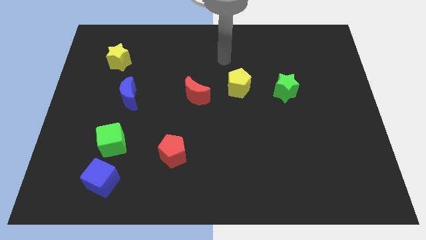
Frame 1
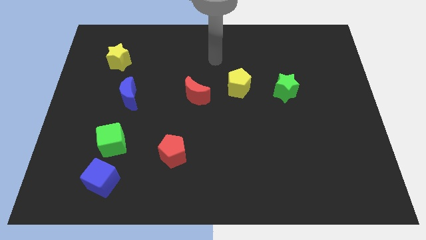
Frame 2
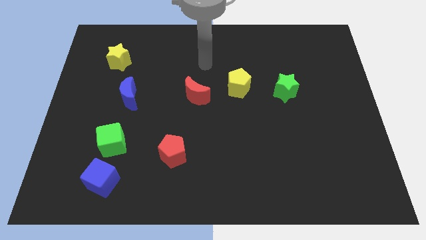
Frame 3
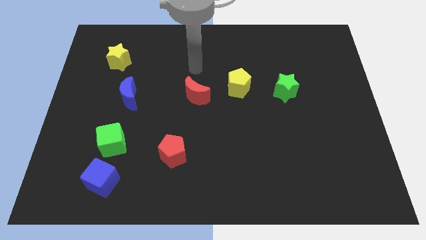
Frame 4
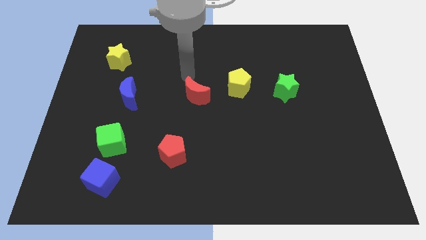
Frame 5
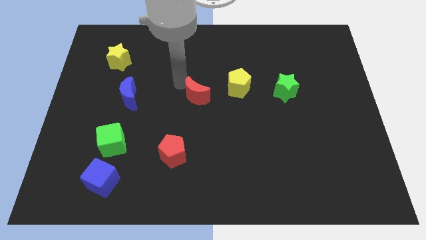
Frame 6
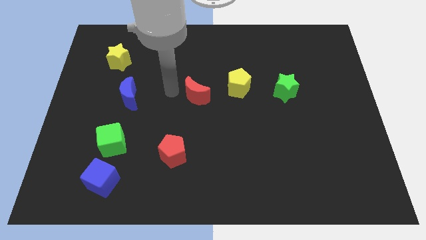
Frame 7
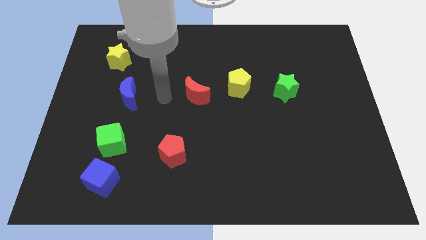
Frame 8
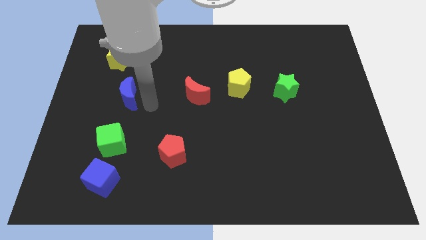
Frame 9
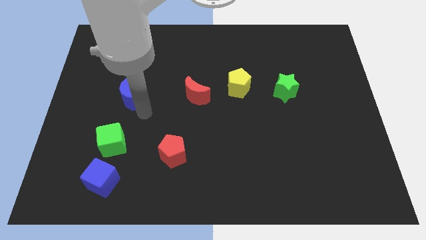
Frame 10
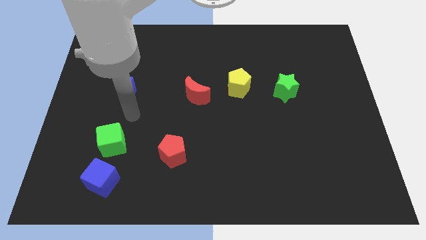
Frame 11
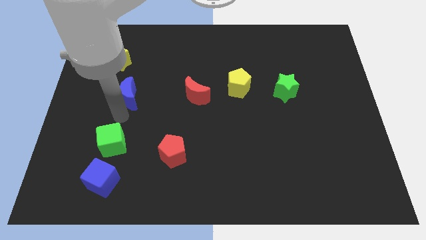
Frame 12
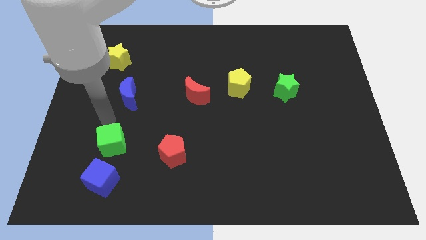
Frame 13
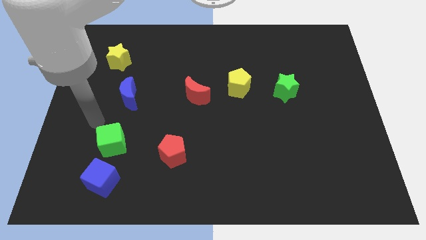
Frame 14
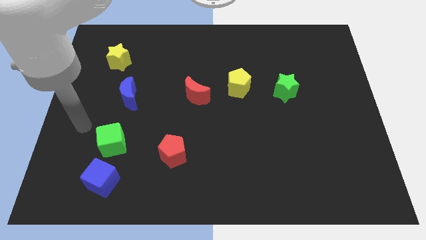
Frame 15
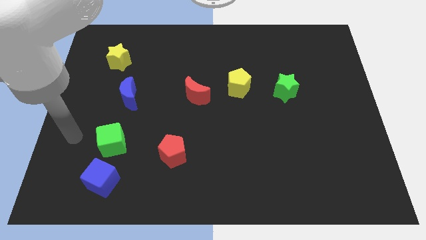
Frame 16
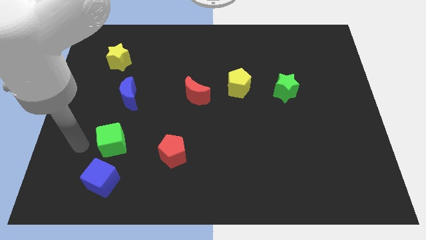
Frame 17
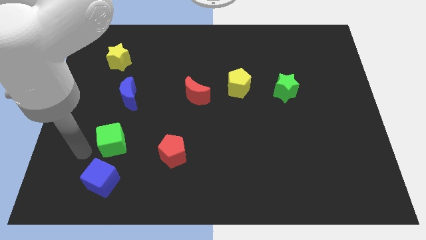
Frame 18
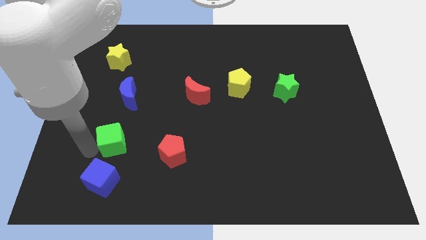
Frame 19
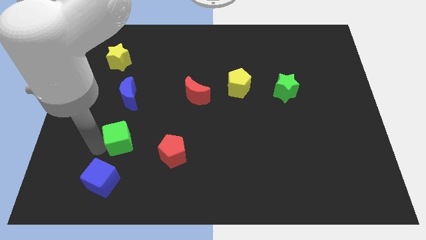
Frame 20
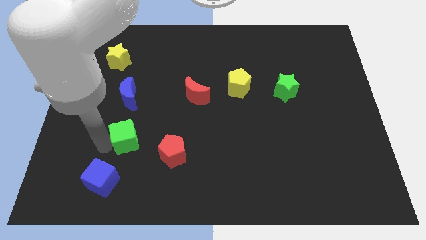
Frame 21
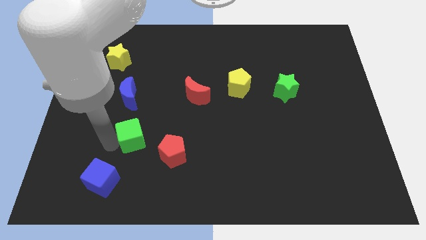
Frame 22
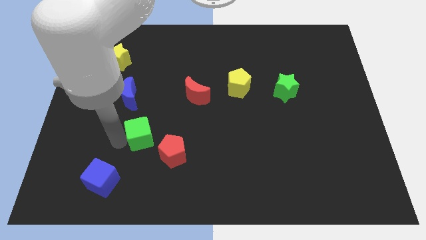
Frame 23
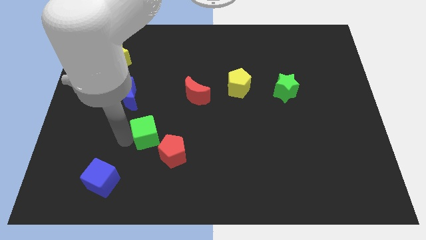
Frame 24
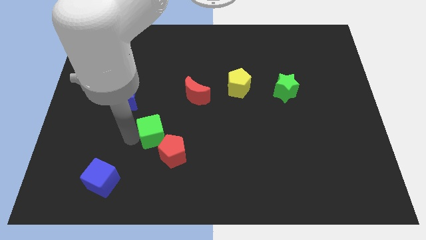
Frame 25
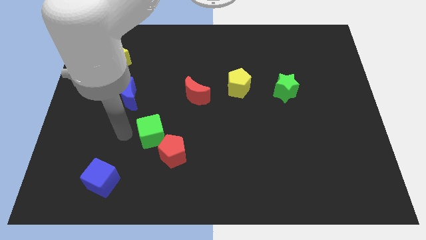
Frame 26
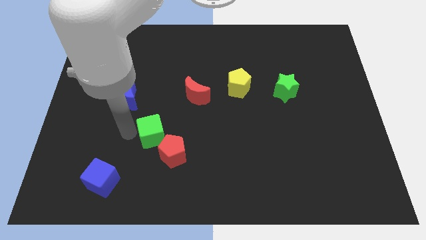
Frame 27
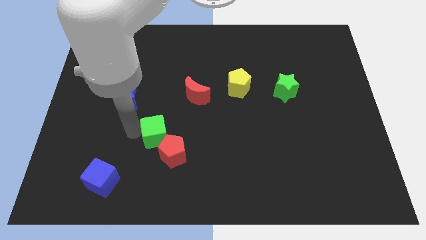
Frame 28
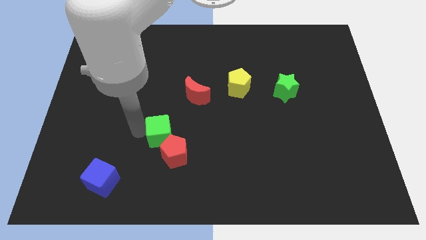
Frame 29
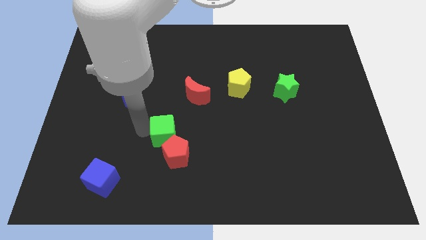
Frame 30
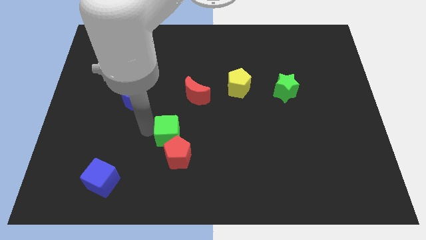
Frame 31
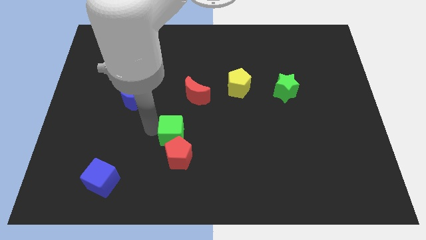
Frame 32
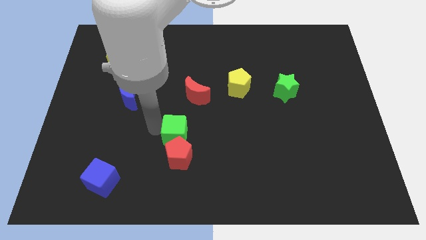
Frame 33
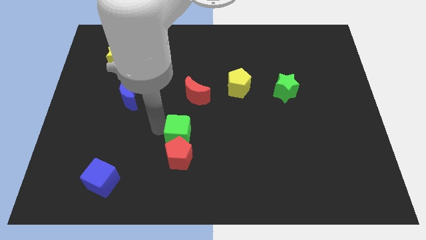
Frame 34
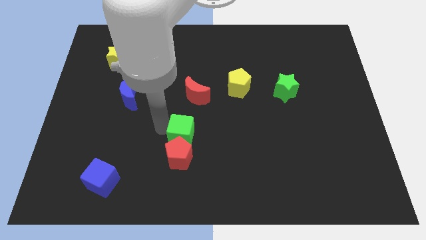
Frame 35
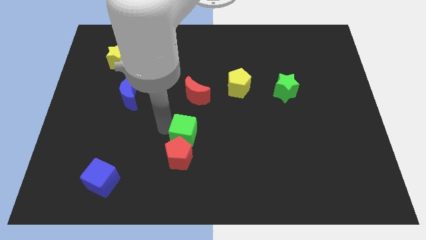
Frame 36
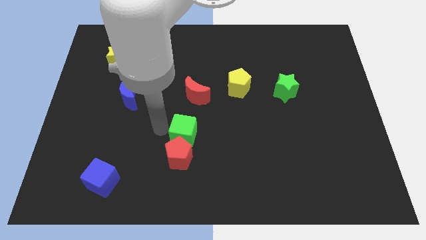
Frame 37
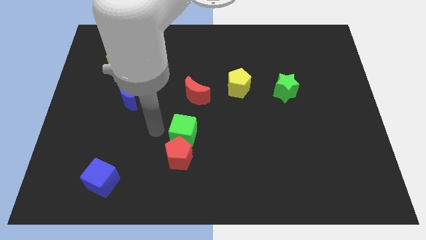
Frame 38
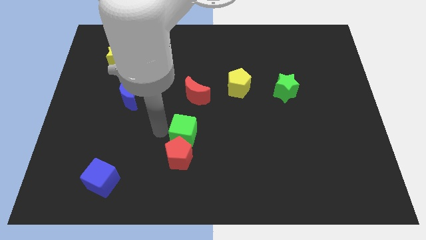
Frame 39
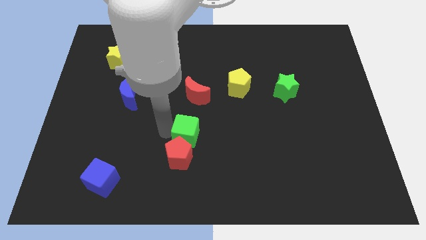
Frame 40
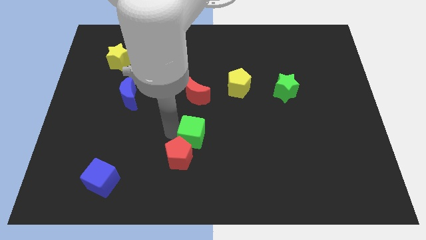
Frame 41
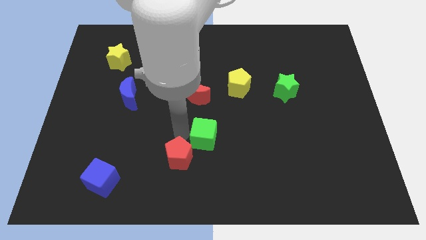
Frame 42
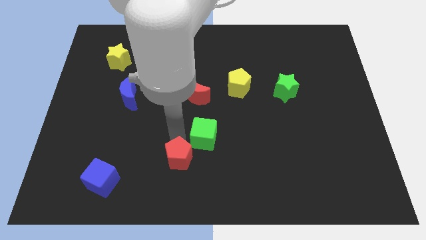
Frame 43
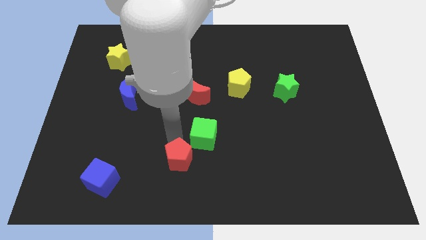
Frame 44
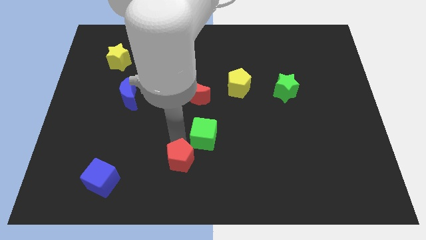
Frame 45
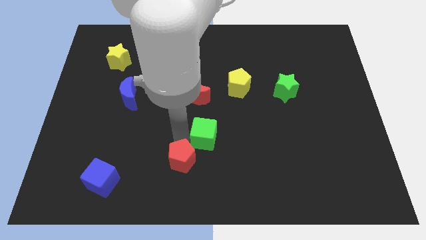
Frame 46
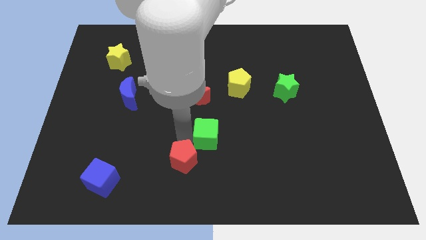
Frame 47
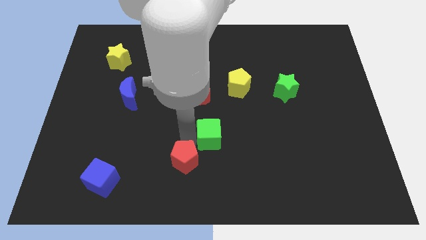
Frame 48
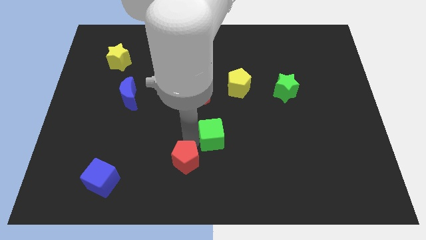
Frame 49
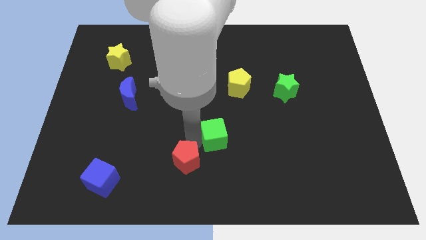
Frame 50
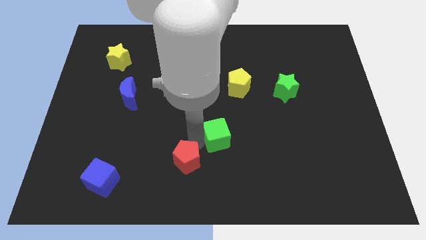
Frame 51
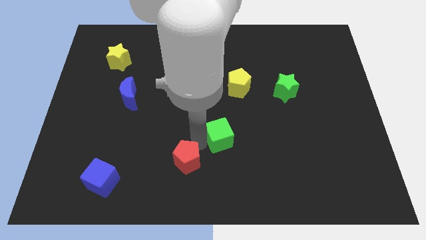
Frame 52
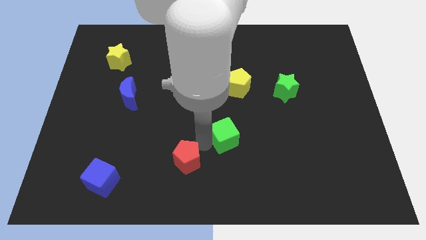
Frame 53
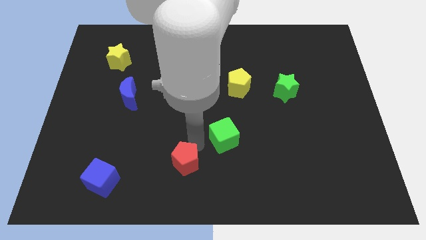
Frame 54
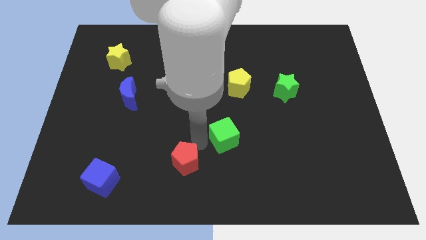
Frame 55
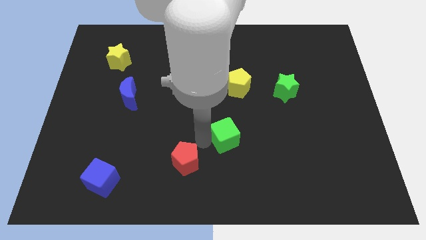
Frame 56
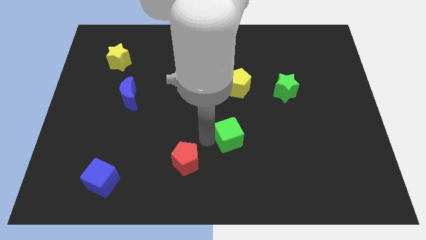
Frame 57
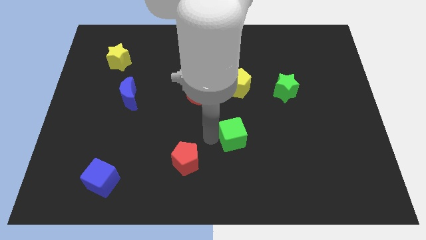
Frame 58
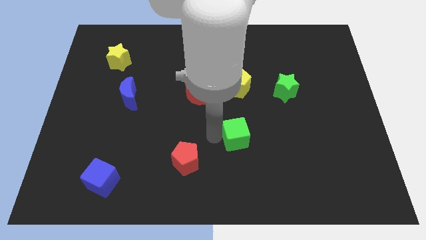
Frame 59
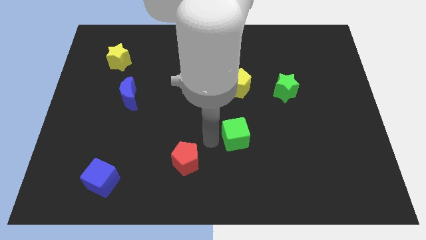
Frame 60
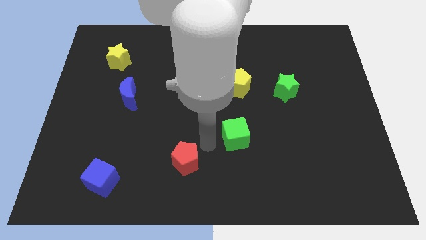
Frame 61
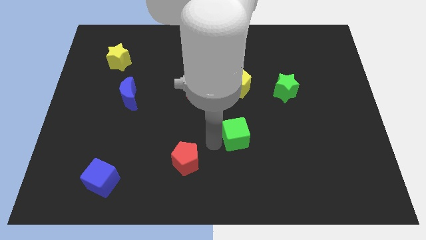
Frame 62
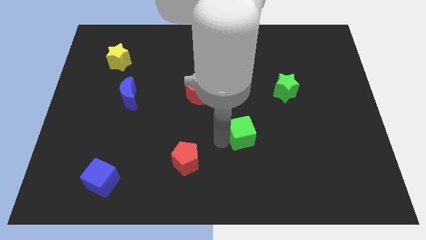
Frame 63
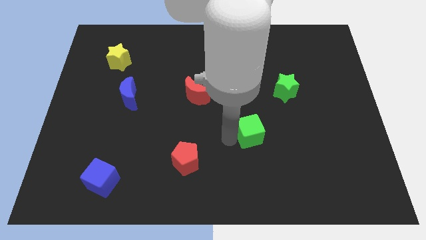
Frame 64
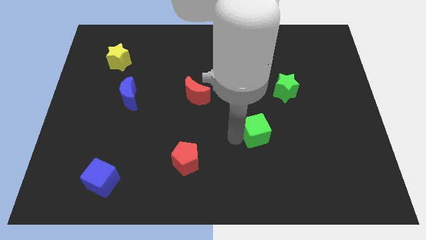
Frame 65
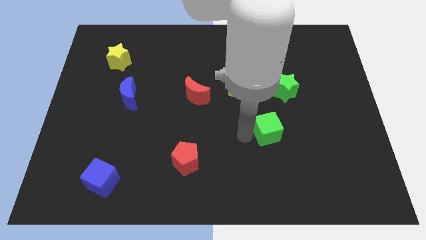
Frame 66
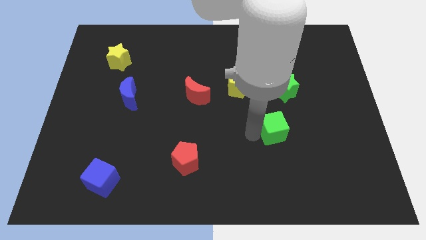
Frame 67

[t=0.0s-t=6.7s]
push the green cube below the green star
